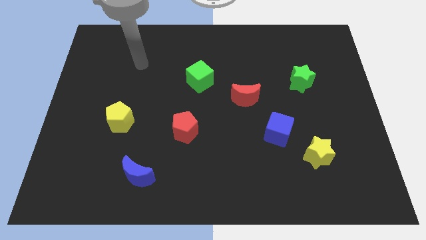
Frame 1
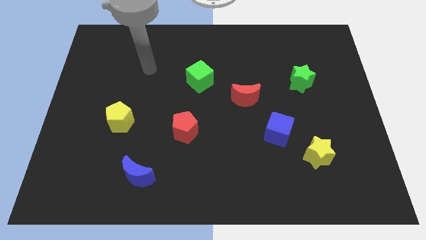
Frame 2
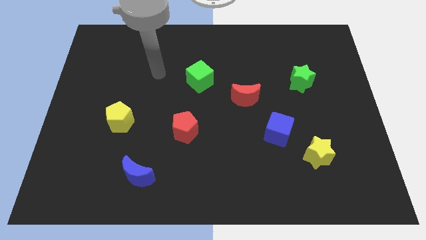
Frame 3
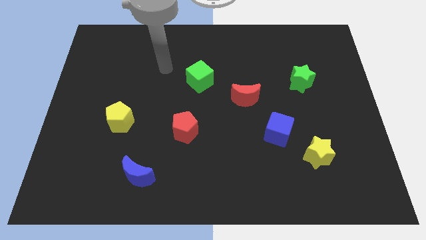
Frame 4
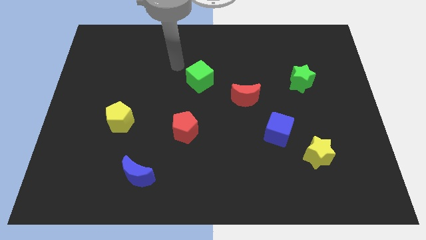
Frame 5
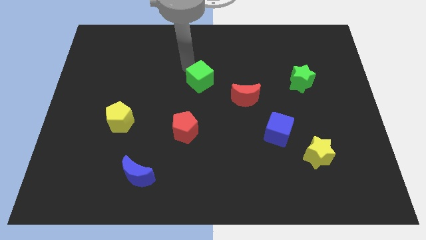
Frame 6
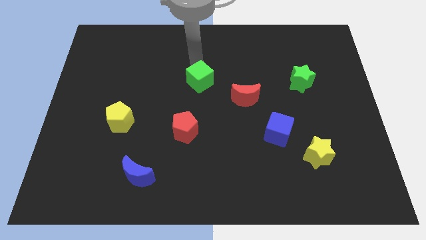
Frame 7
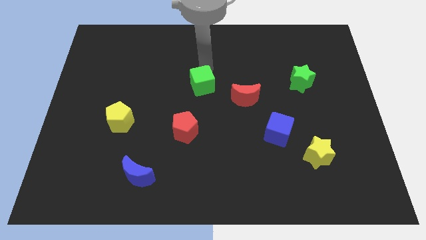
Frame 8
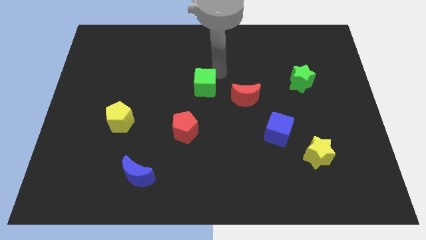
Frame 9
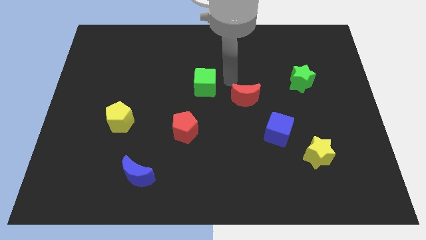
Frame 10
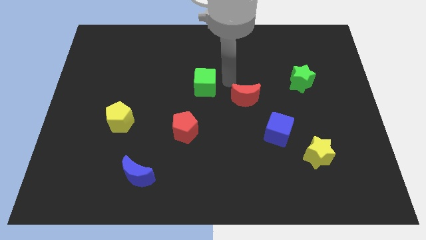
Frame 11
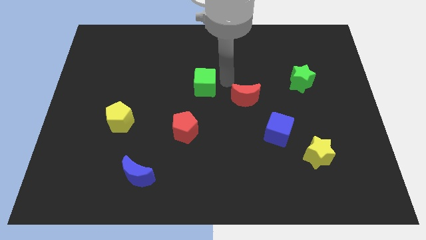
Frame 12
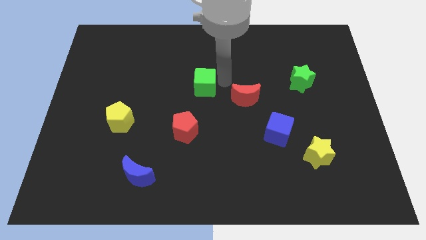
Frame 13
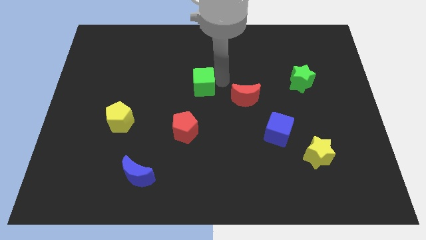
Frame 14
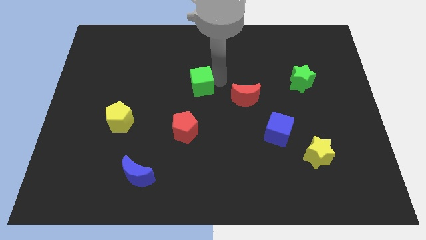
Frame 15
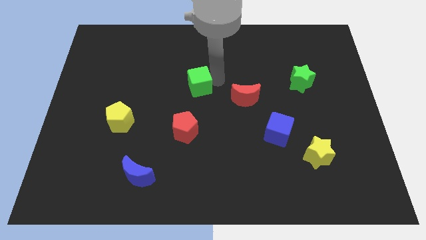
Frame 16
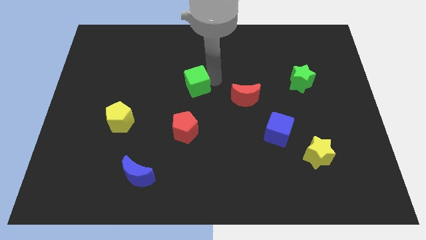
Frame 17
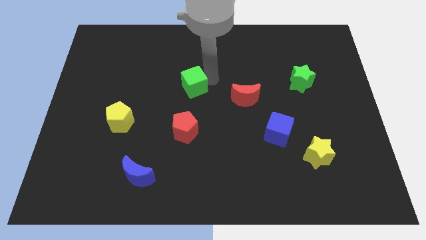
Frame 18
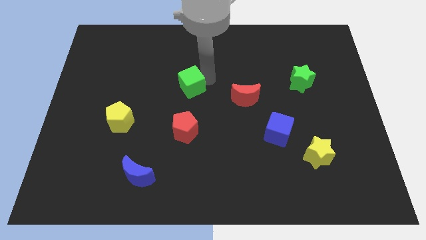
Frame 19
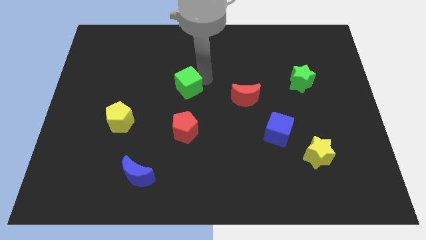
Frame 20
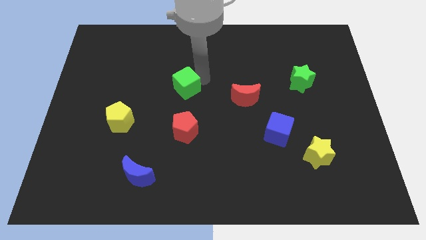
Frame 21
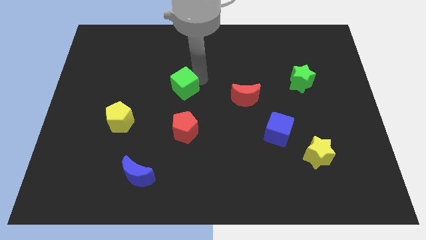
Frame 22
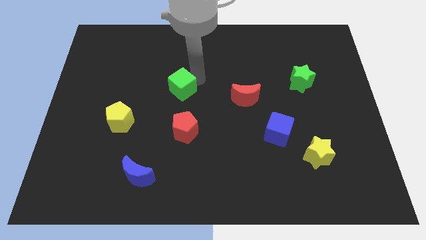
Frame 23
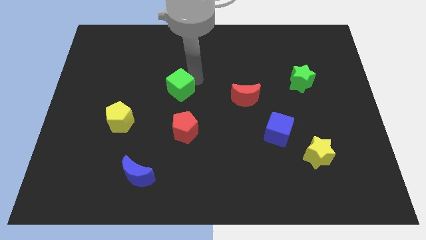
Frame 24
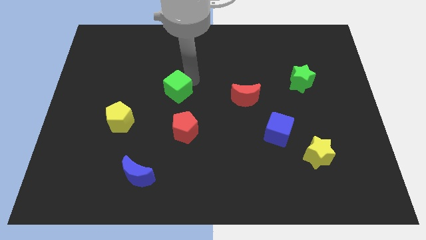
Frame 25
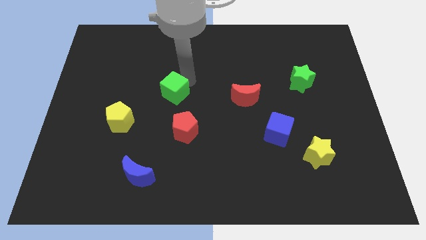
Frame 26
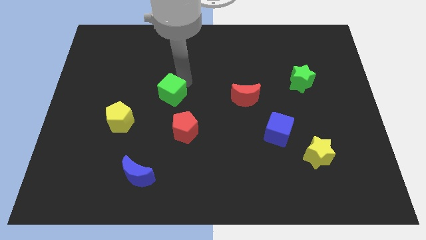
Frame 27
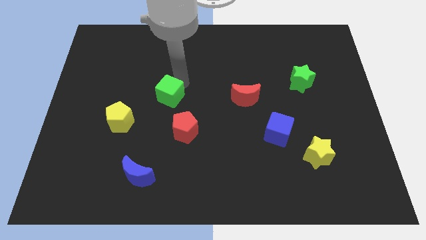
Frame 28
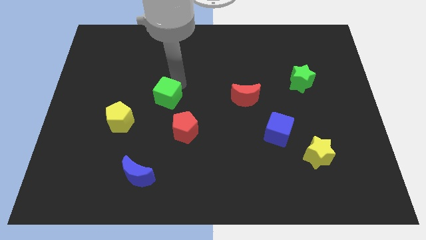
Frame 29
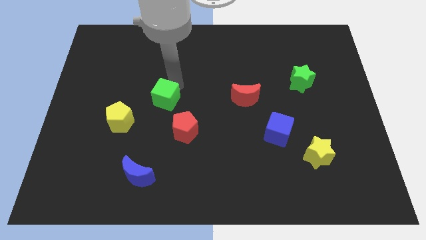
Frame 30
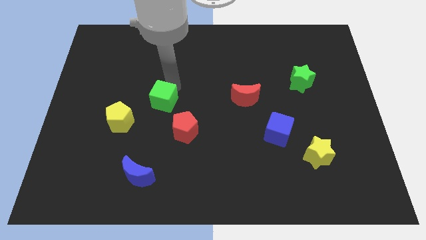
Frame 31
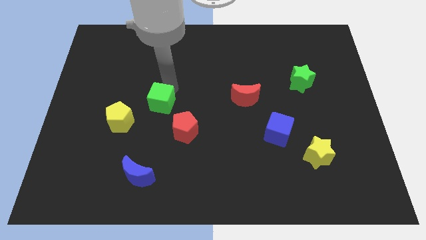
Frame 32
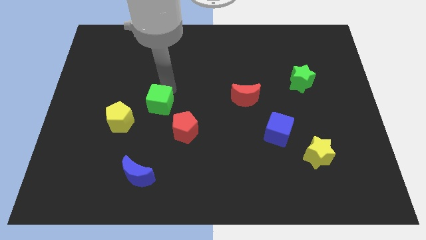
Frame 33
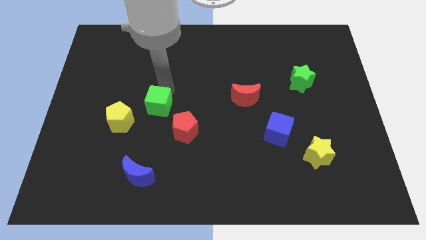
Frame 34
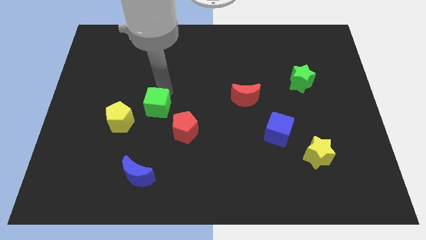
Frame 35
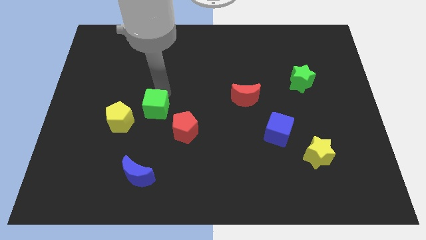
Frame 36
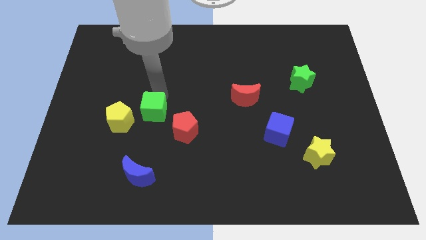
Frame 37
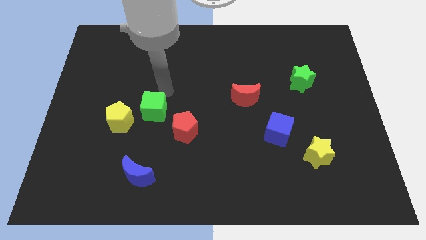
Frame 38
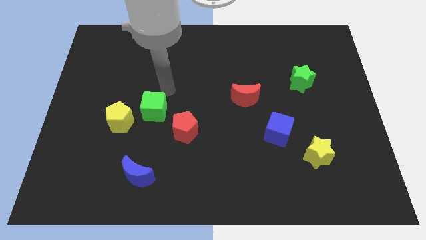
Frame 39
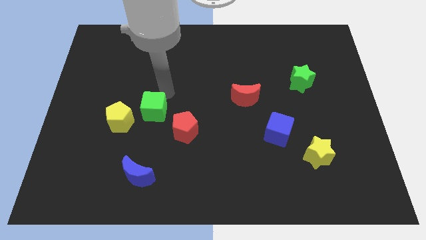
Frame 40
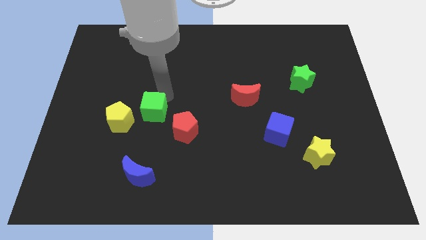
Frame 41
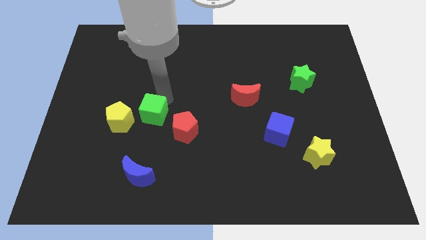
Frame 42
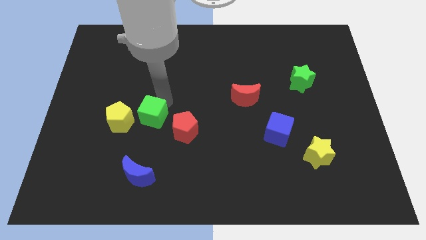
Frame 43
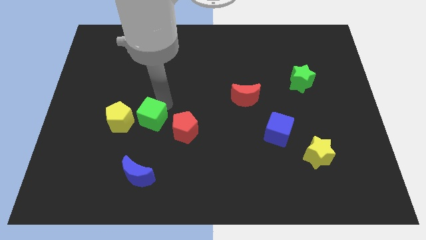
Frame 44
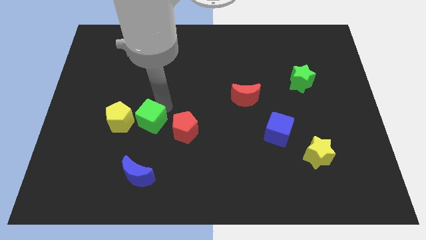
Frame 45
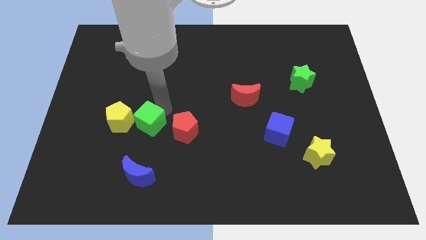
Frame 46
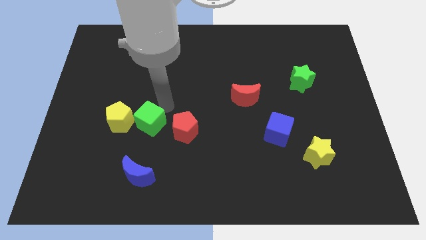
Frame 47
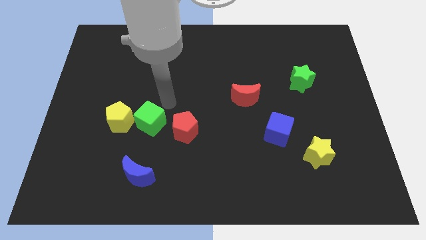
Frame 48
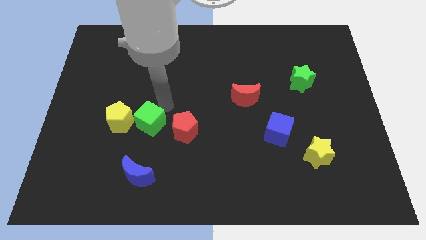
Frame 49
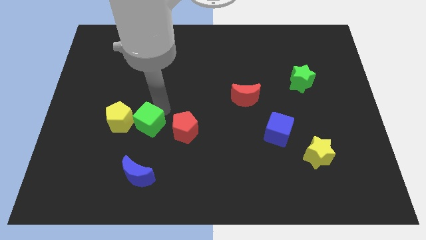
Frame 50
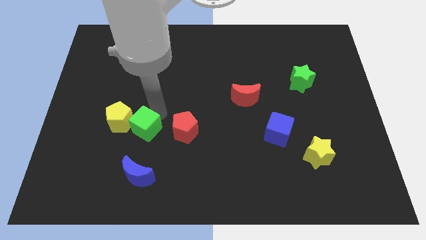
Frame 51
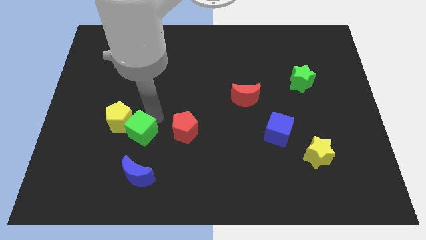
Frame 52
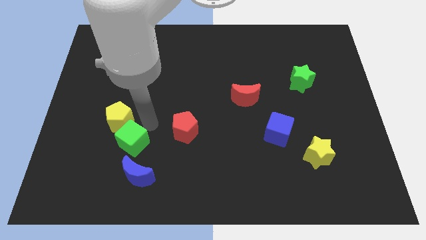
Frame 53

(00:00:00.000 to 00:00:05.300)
slide the green cube to the top left of the blue moon

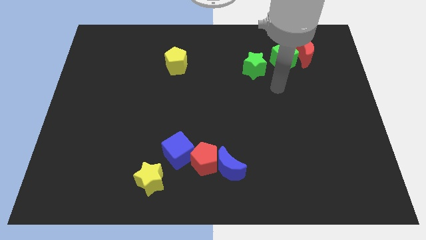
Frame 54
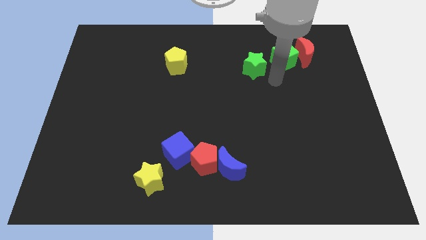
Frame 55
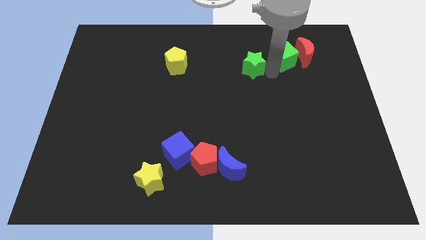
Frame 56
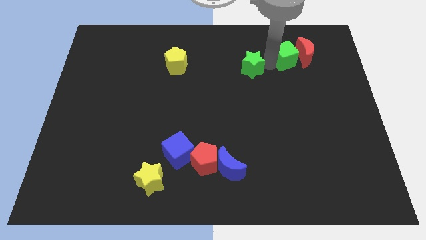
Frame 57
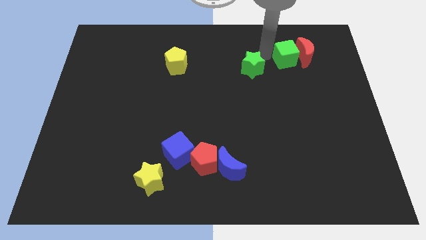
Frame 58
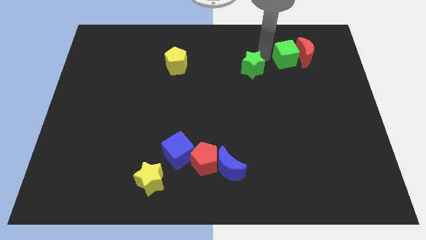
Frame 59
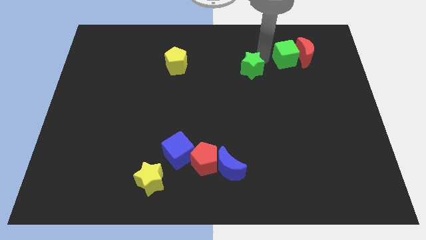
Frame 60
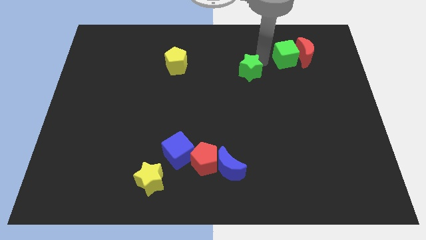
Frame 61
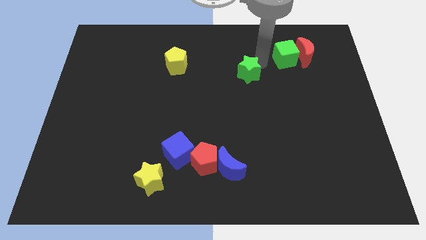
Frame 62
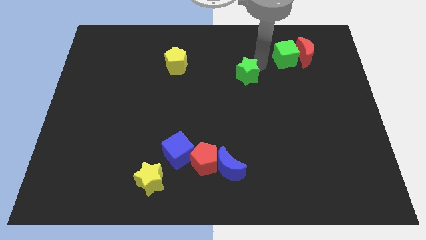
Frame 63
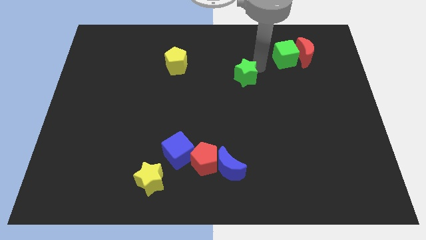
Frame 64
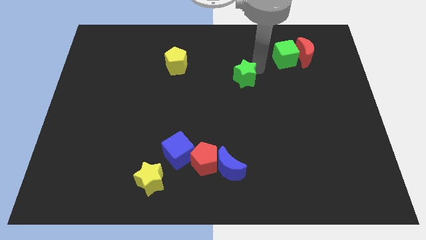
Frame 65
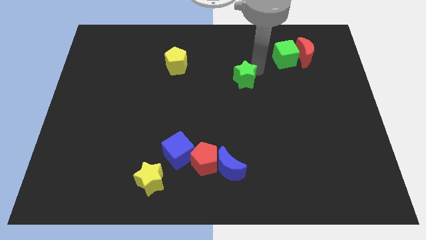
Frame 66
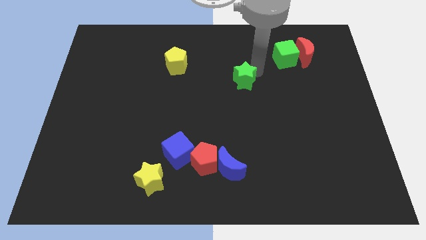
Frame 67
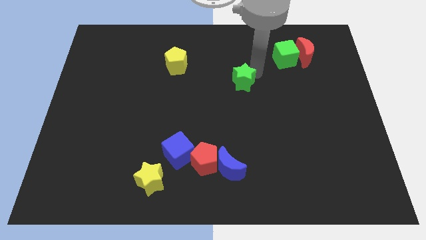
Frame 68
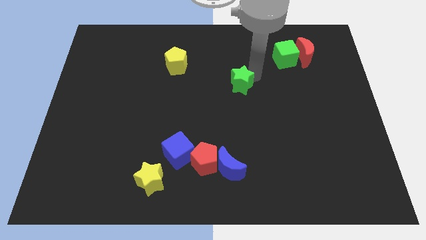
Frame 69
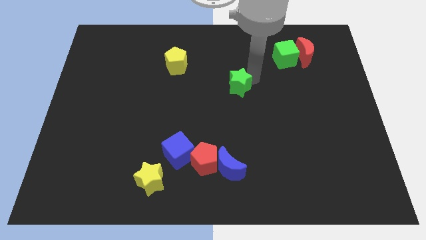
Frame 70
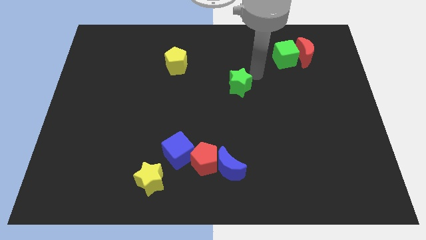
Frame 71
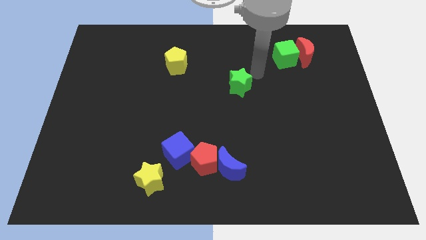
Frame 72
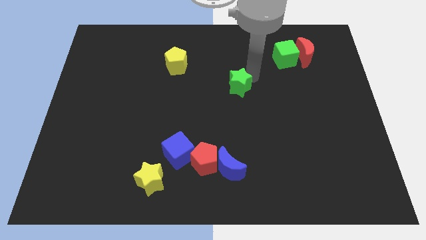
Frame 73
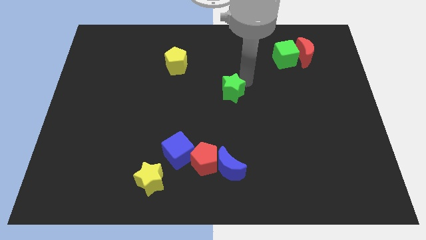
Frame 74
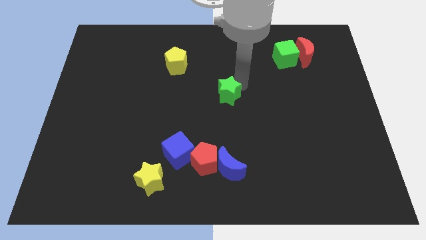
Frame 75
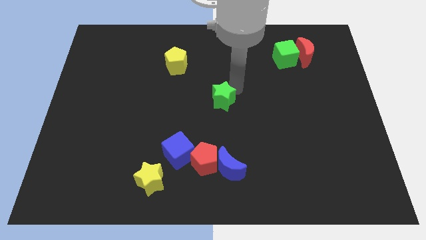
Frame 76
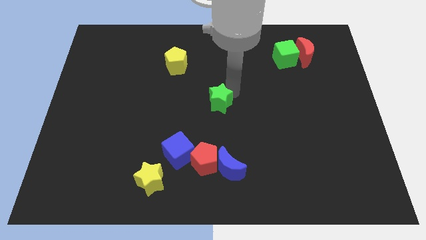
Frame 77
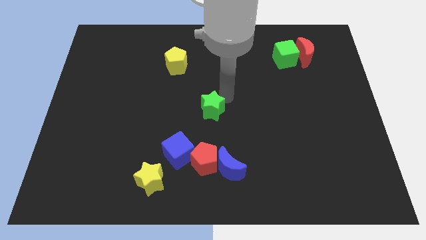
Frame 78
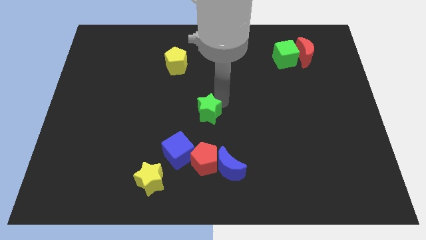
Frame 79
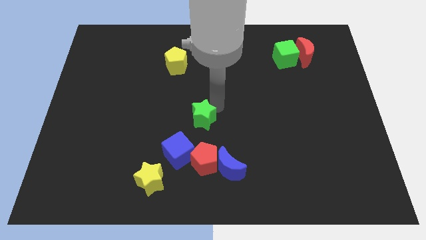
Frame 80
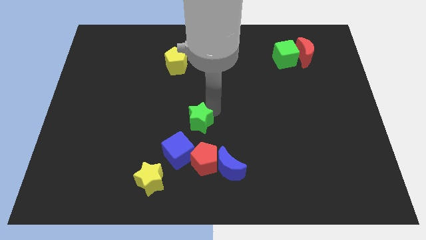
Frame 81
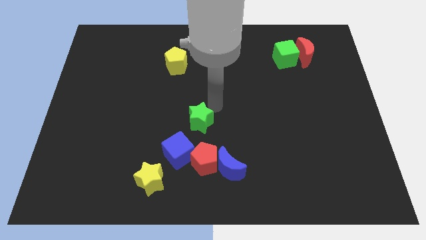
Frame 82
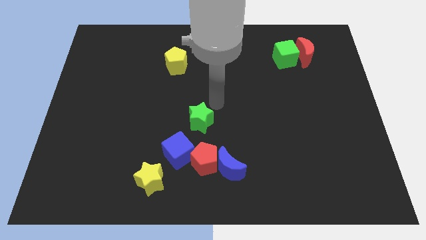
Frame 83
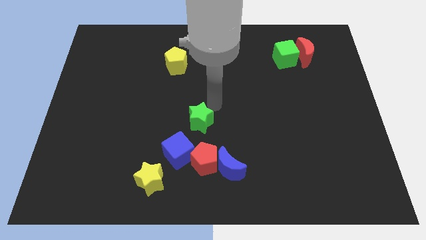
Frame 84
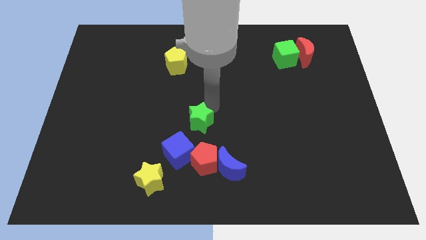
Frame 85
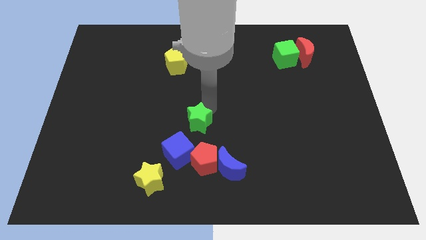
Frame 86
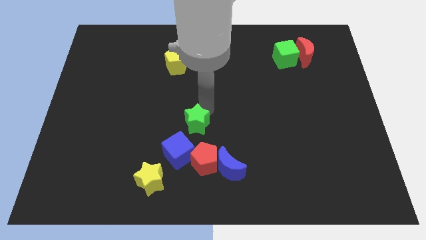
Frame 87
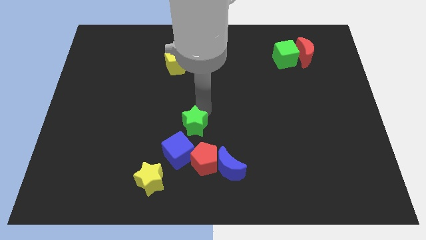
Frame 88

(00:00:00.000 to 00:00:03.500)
put the green star to the top left of the red pentagon
